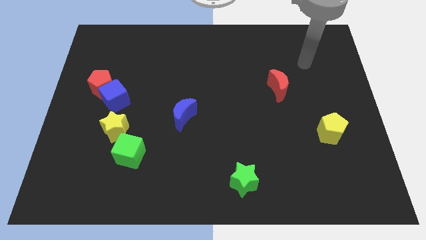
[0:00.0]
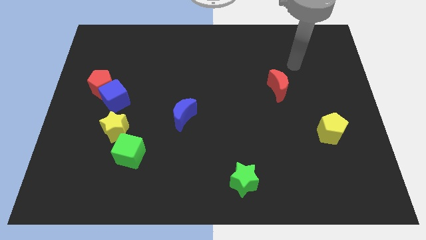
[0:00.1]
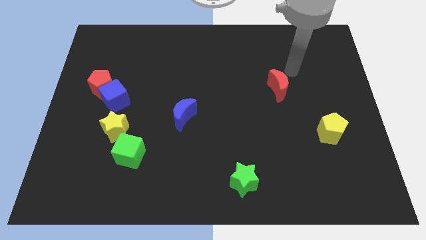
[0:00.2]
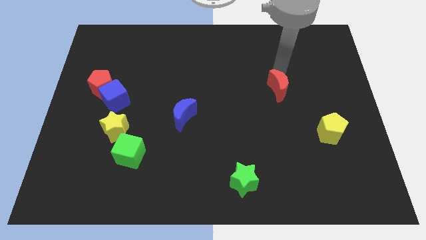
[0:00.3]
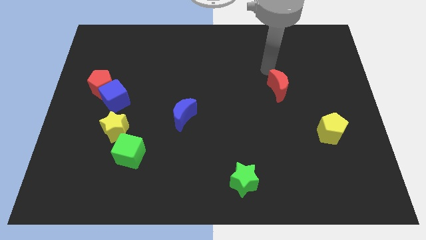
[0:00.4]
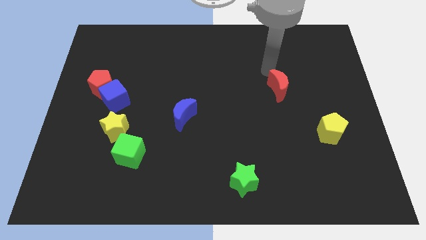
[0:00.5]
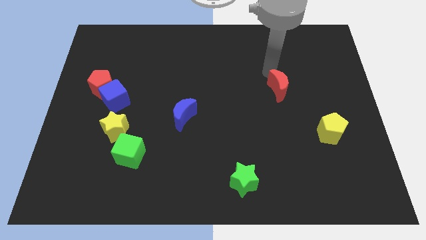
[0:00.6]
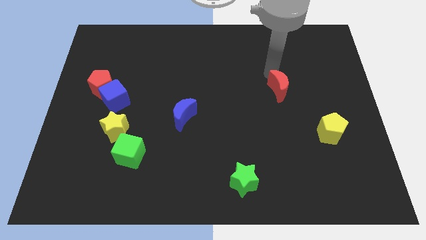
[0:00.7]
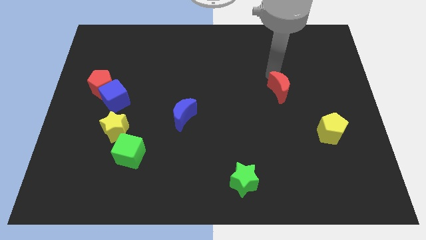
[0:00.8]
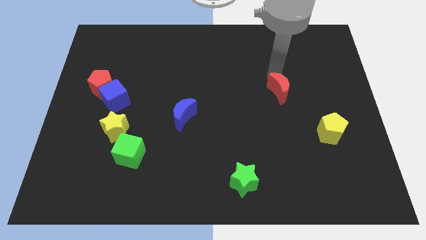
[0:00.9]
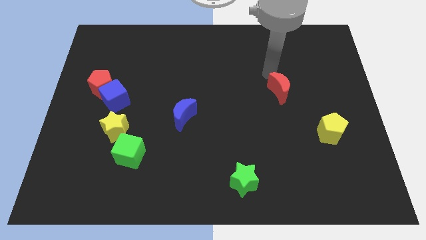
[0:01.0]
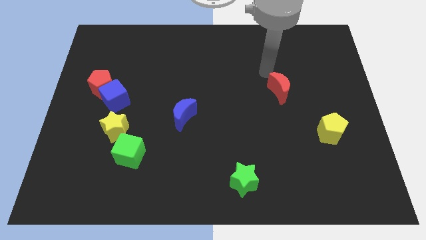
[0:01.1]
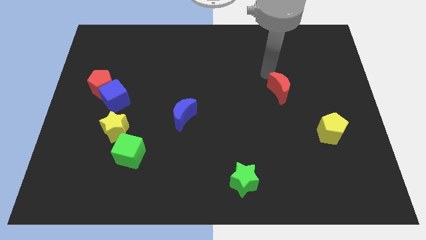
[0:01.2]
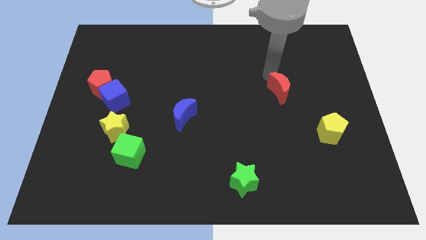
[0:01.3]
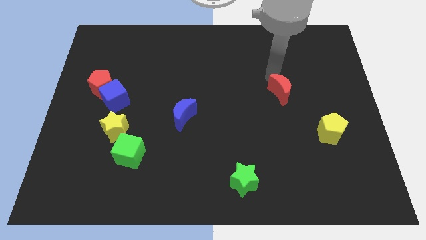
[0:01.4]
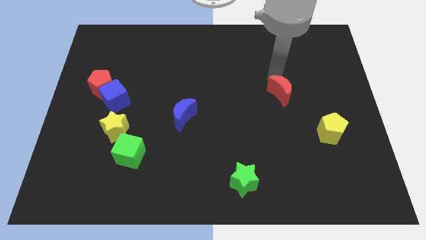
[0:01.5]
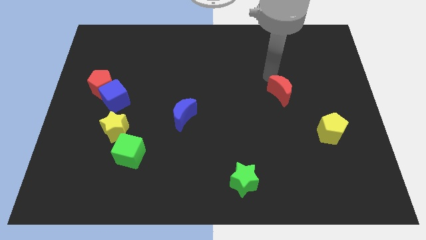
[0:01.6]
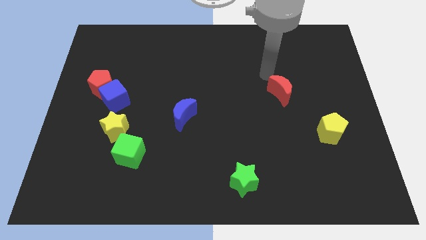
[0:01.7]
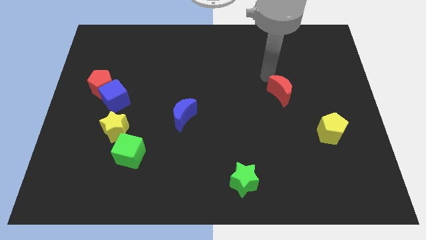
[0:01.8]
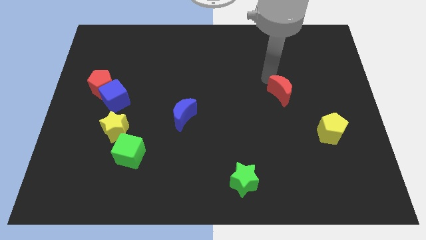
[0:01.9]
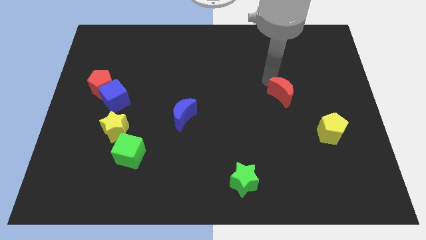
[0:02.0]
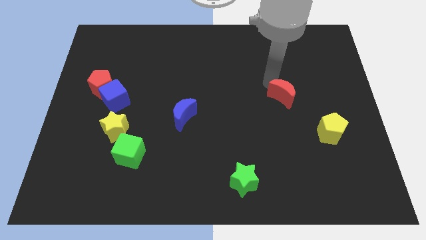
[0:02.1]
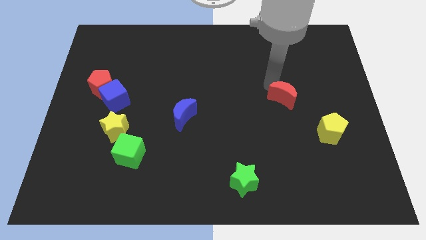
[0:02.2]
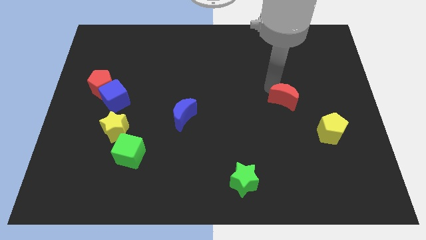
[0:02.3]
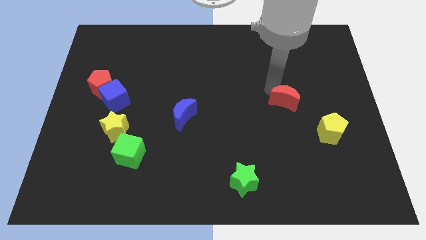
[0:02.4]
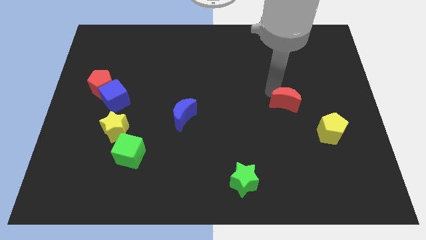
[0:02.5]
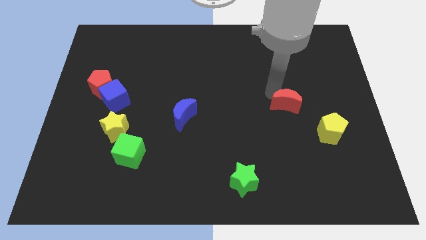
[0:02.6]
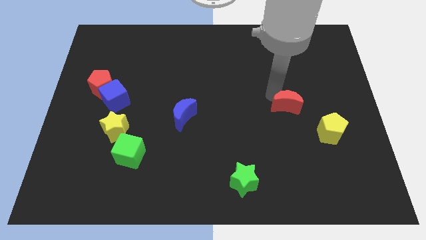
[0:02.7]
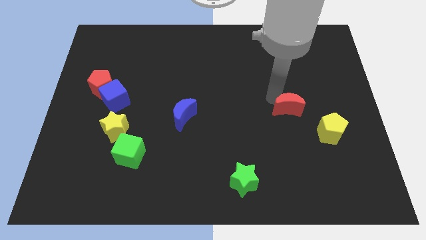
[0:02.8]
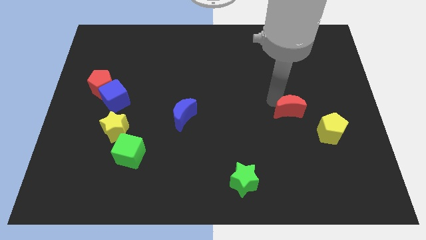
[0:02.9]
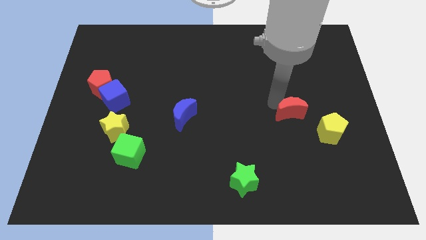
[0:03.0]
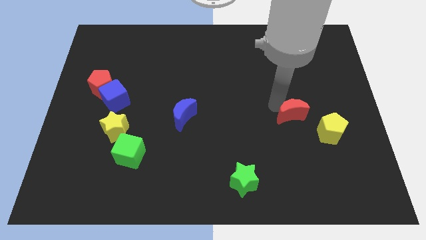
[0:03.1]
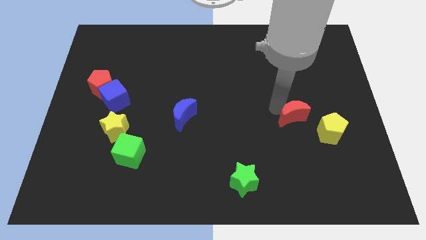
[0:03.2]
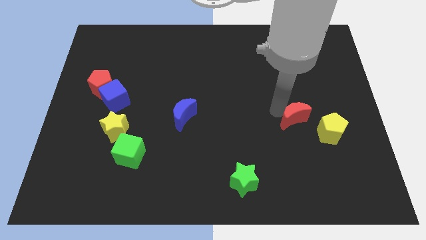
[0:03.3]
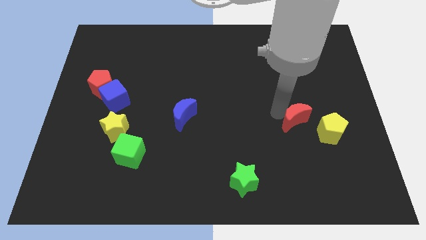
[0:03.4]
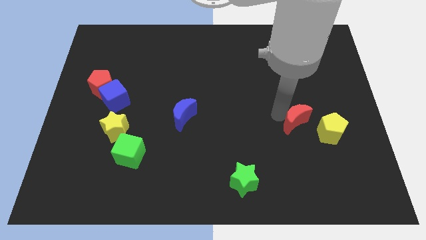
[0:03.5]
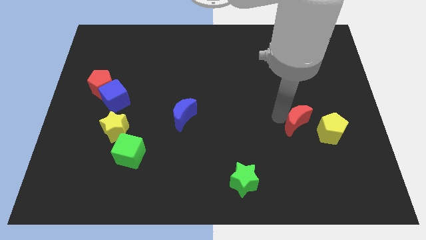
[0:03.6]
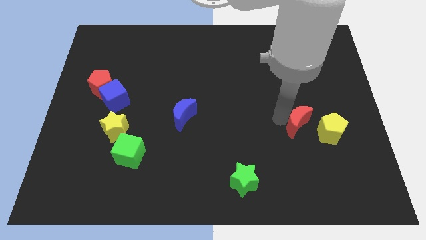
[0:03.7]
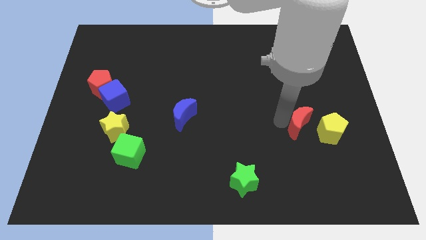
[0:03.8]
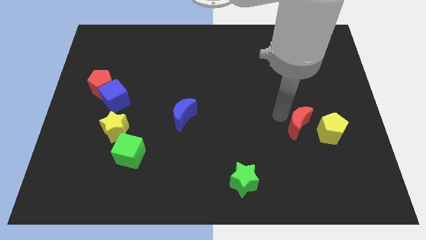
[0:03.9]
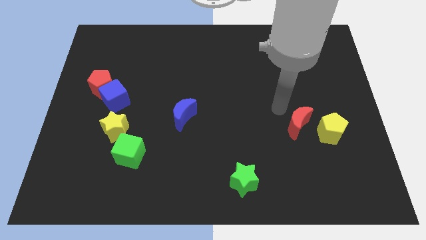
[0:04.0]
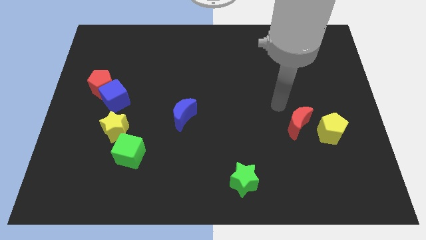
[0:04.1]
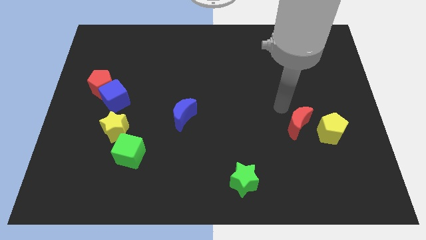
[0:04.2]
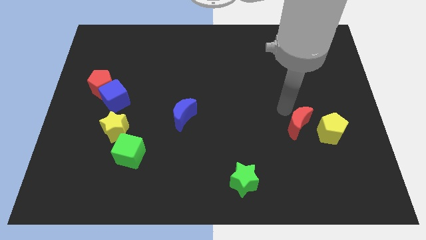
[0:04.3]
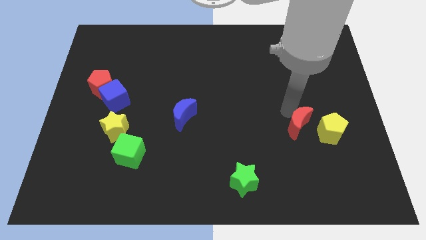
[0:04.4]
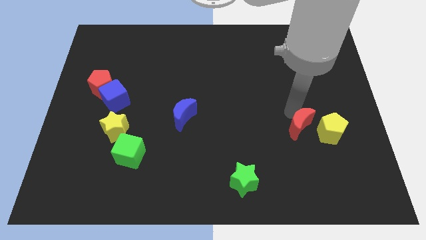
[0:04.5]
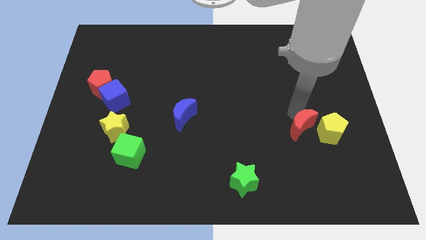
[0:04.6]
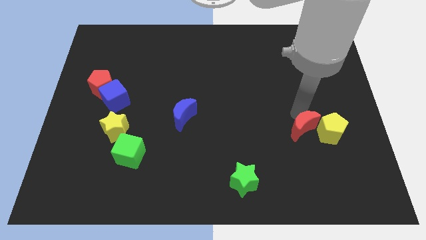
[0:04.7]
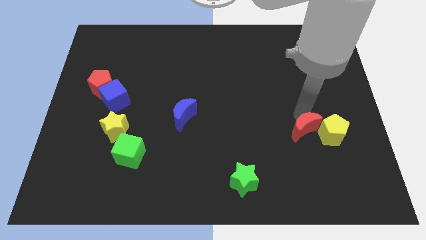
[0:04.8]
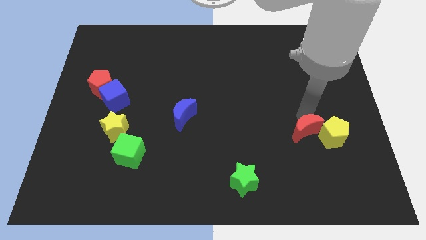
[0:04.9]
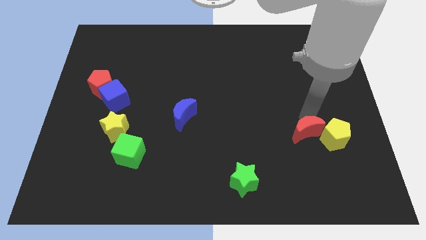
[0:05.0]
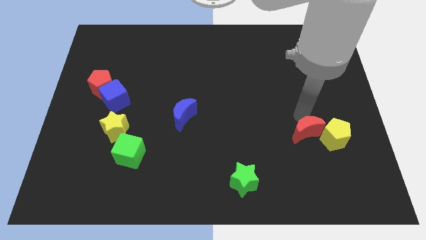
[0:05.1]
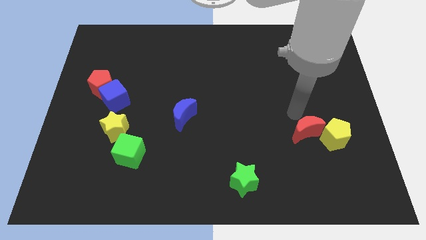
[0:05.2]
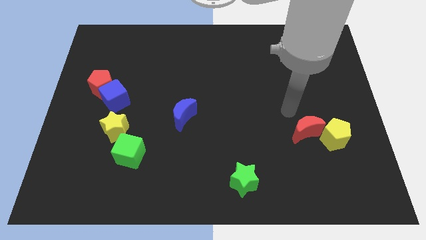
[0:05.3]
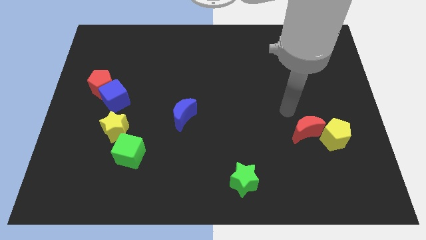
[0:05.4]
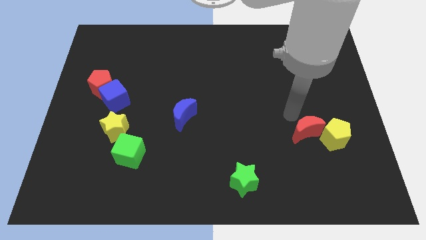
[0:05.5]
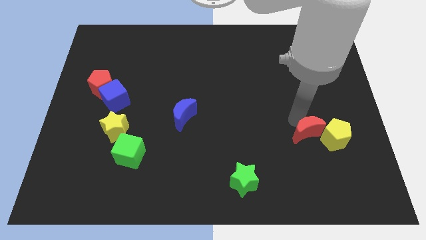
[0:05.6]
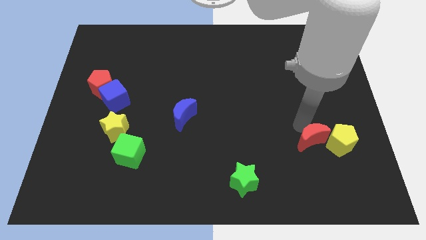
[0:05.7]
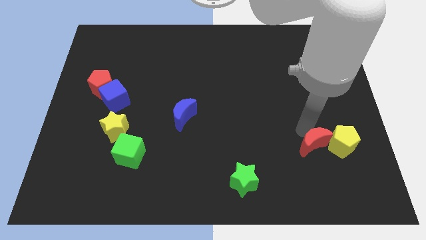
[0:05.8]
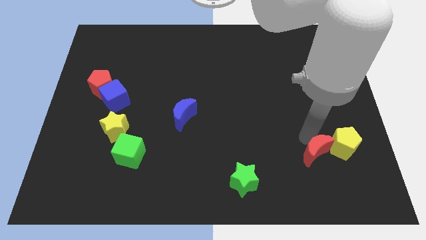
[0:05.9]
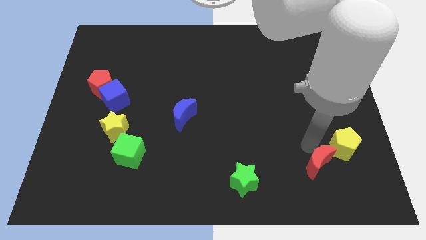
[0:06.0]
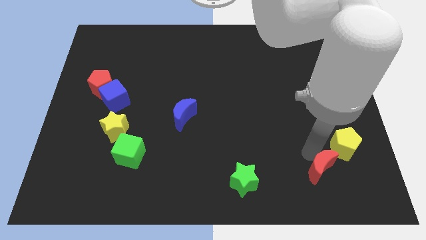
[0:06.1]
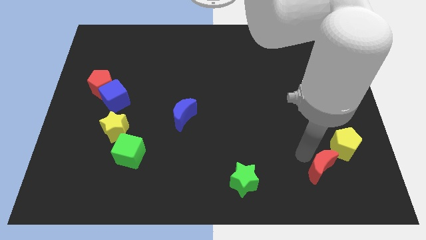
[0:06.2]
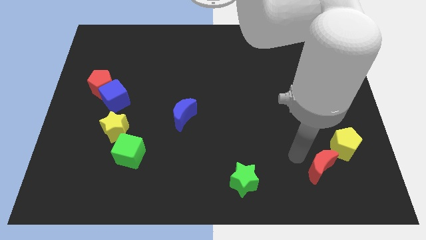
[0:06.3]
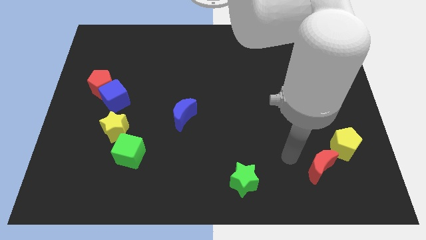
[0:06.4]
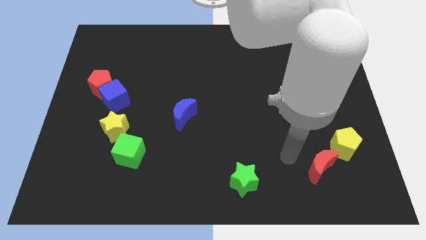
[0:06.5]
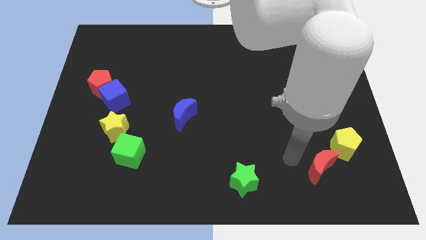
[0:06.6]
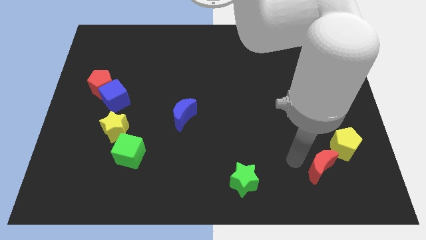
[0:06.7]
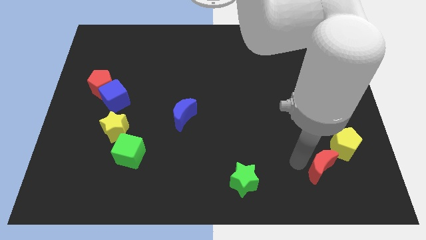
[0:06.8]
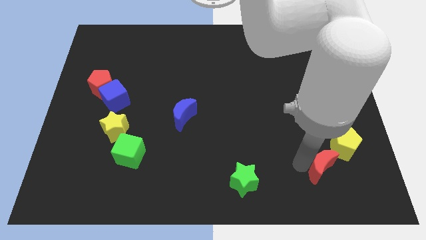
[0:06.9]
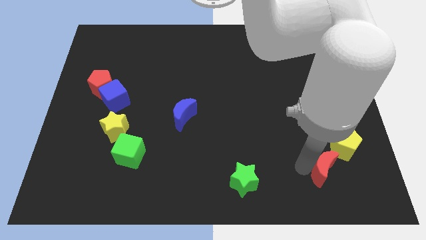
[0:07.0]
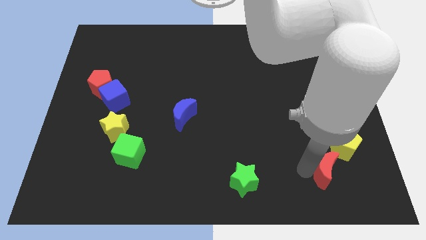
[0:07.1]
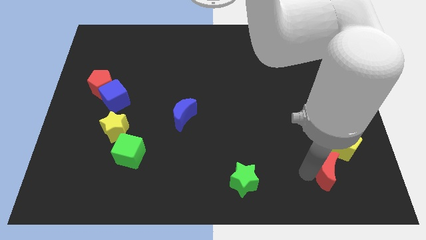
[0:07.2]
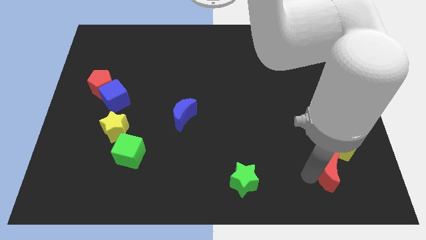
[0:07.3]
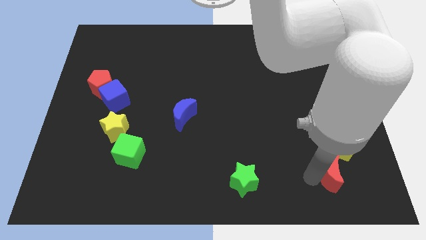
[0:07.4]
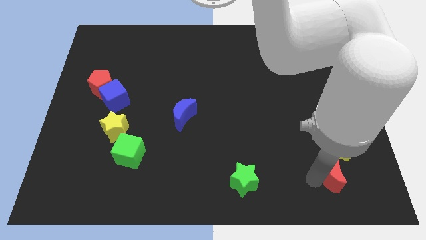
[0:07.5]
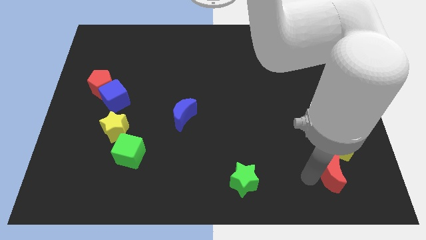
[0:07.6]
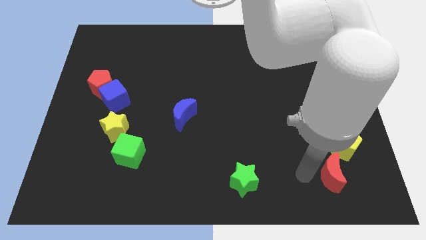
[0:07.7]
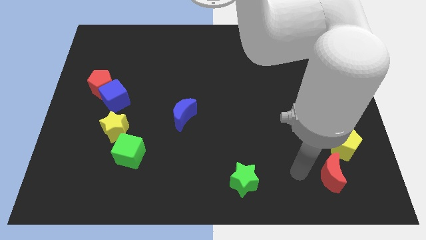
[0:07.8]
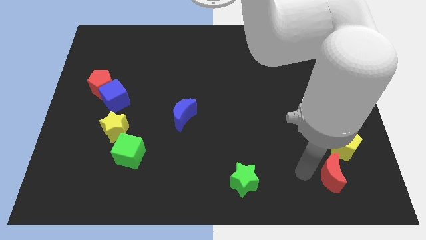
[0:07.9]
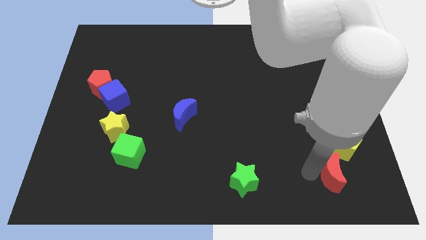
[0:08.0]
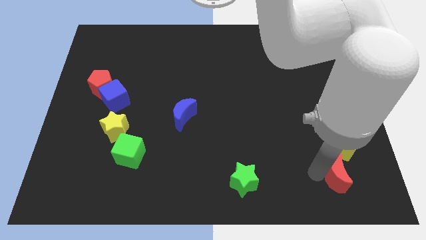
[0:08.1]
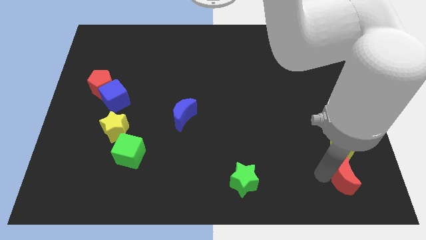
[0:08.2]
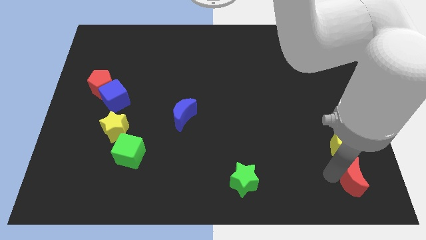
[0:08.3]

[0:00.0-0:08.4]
push the red moon to the bottom right corner
